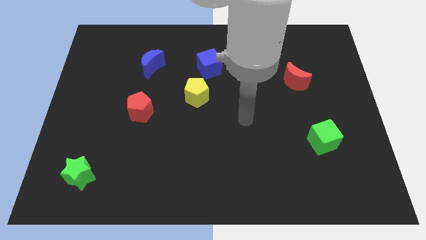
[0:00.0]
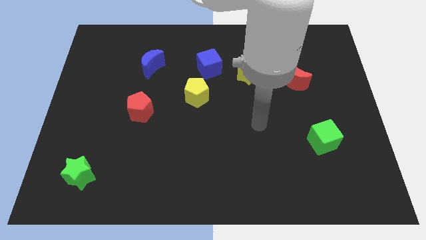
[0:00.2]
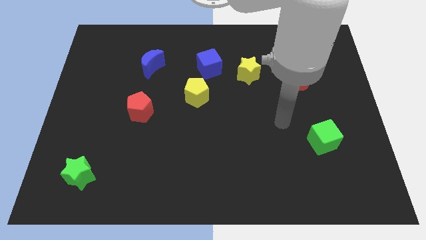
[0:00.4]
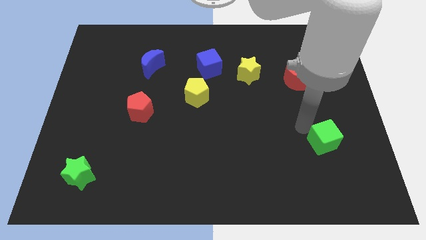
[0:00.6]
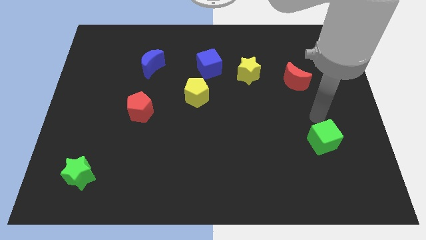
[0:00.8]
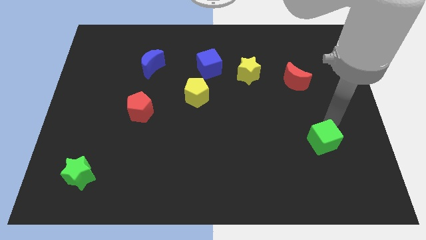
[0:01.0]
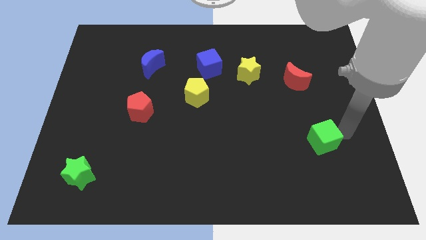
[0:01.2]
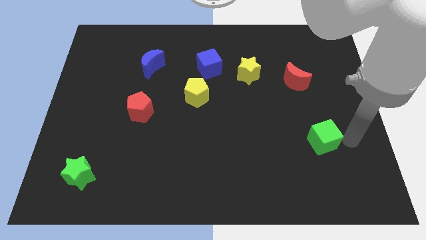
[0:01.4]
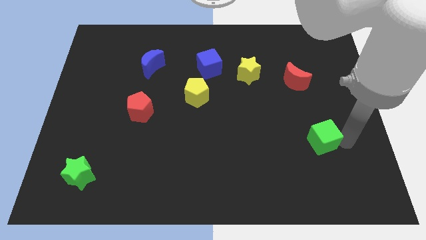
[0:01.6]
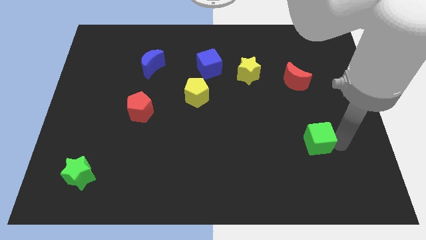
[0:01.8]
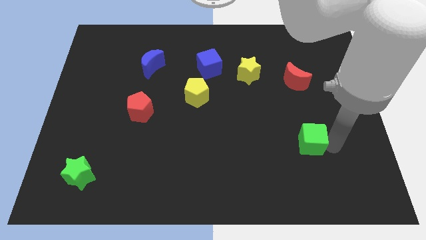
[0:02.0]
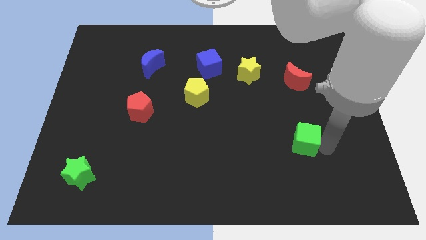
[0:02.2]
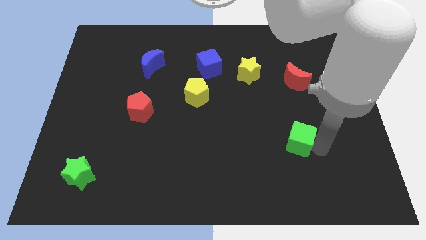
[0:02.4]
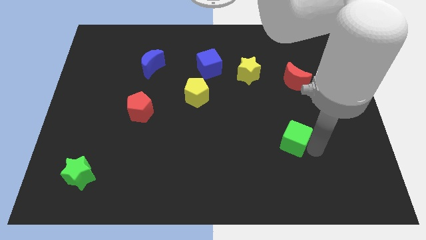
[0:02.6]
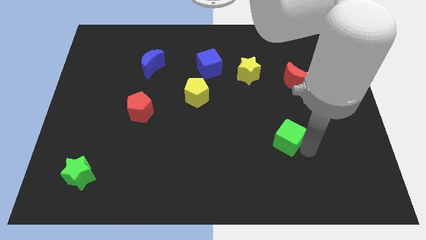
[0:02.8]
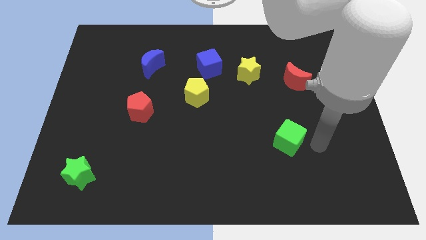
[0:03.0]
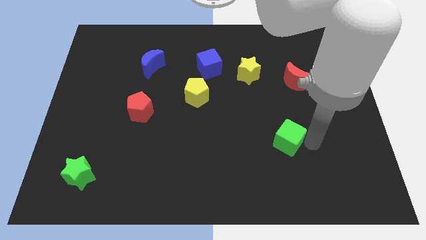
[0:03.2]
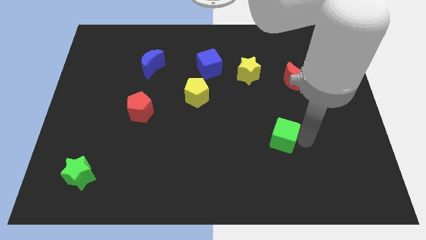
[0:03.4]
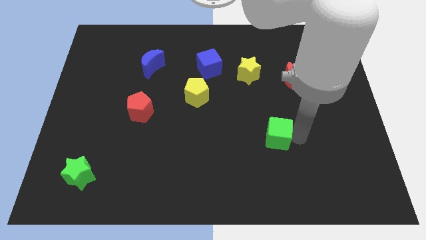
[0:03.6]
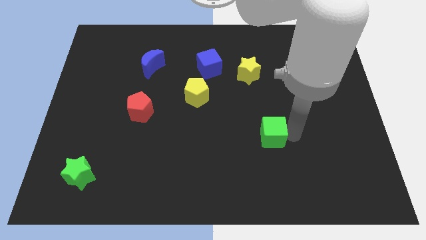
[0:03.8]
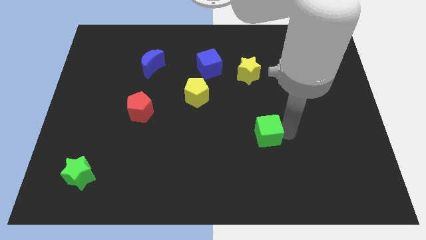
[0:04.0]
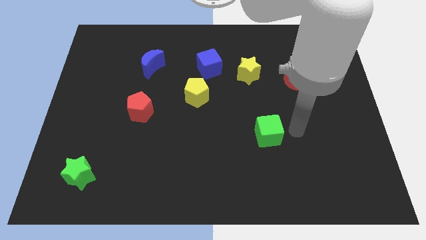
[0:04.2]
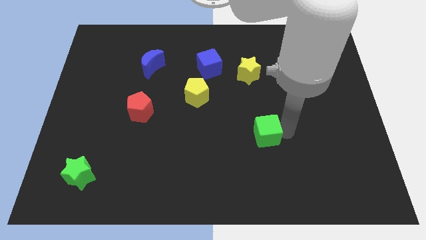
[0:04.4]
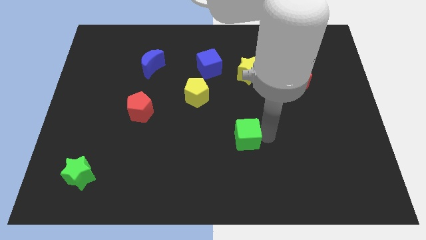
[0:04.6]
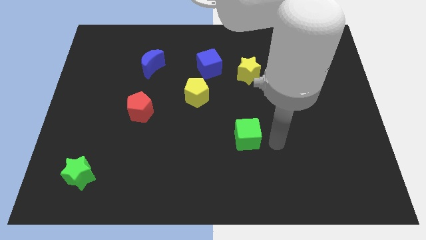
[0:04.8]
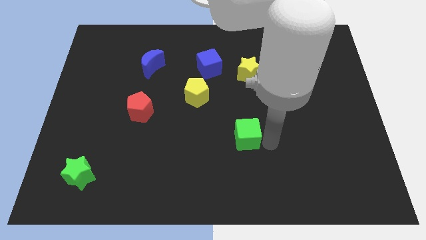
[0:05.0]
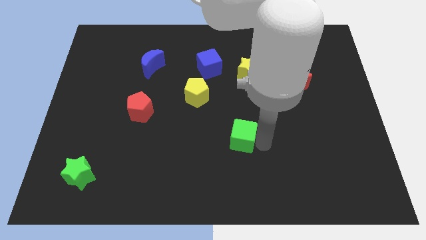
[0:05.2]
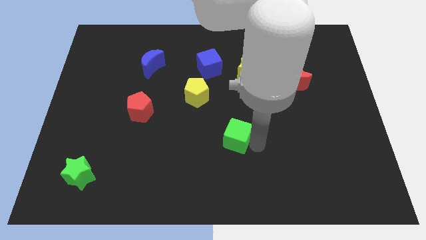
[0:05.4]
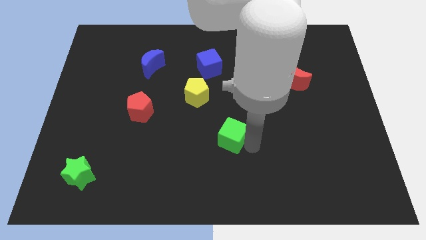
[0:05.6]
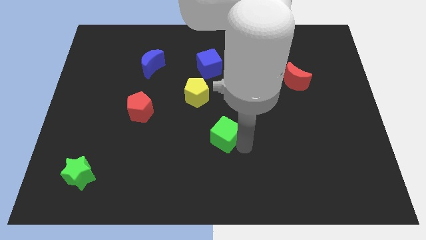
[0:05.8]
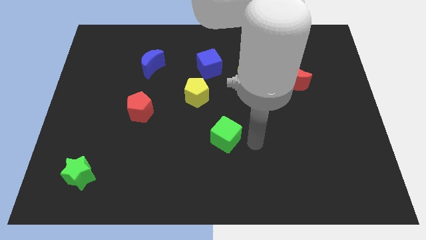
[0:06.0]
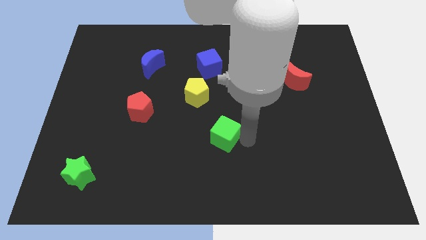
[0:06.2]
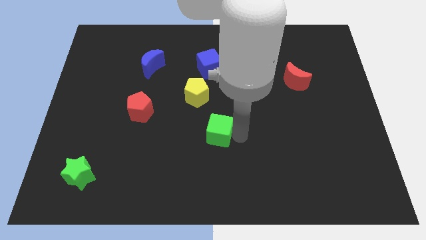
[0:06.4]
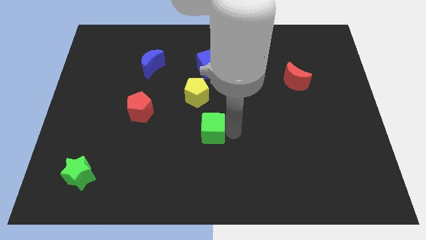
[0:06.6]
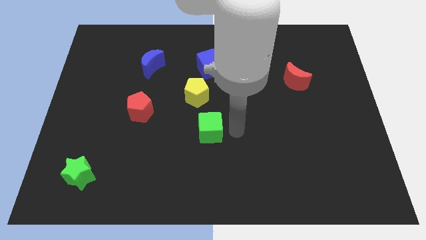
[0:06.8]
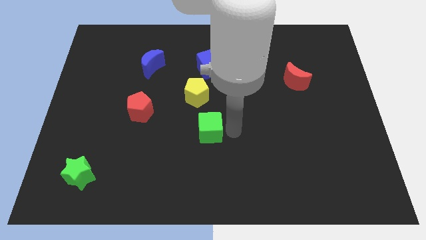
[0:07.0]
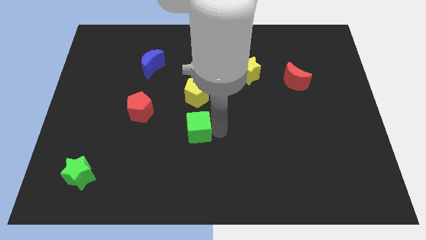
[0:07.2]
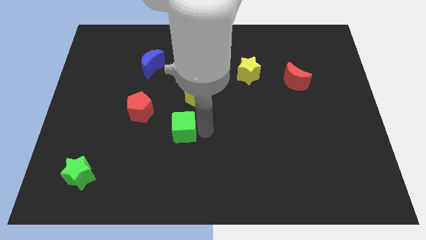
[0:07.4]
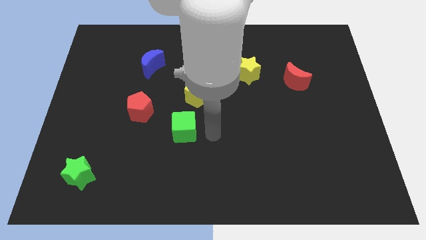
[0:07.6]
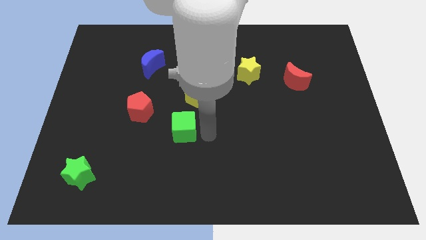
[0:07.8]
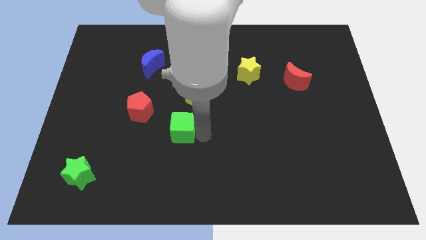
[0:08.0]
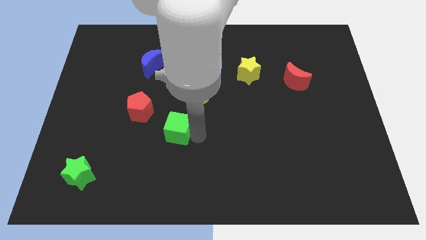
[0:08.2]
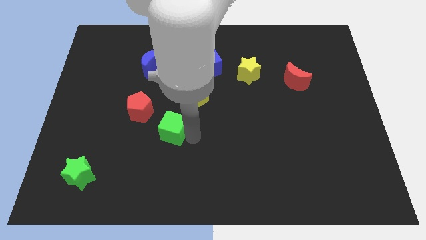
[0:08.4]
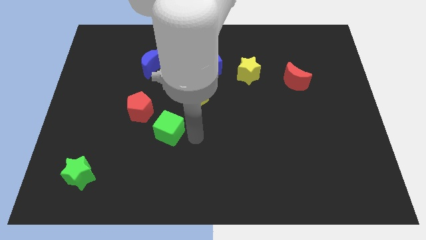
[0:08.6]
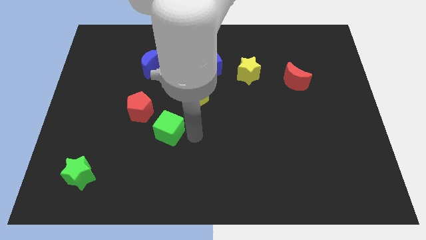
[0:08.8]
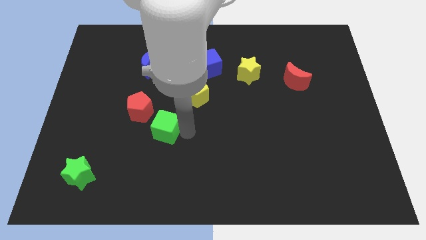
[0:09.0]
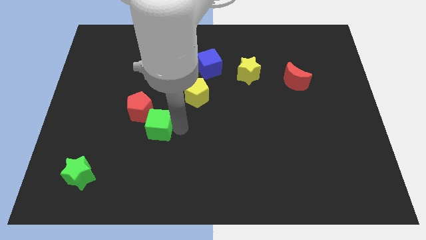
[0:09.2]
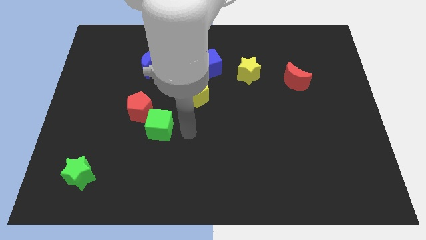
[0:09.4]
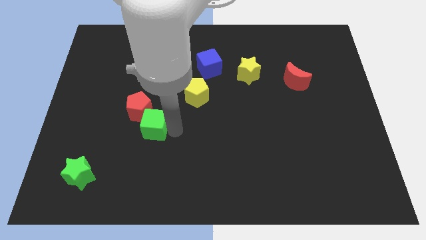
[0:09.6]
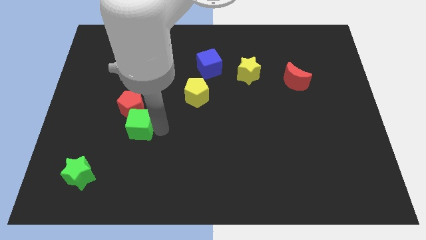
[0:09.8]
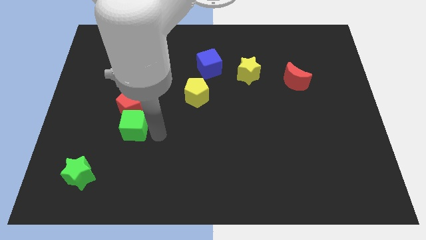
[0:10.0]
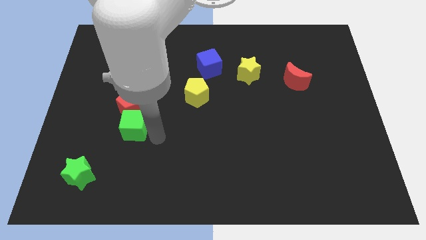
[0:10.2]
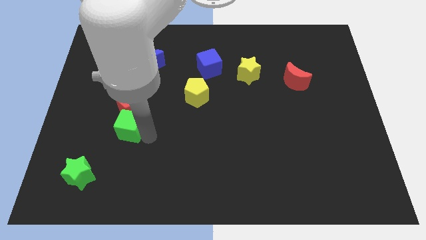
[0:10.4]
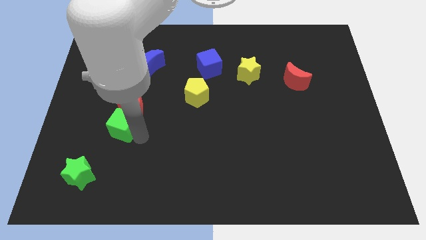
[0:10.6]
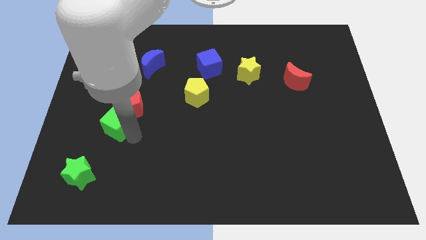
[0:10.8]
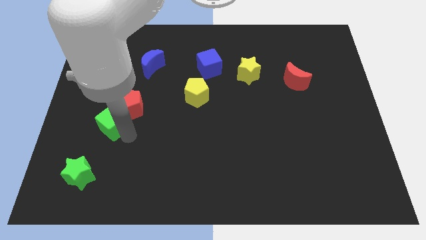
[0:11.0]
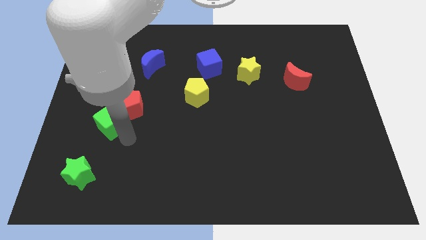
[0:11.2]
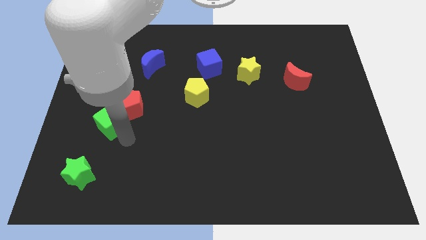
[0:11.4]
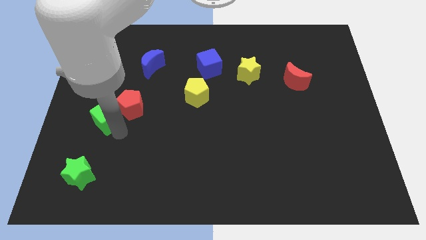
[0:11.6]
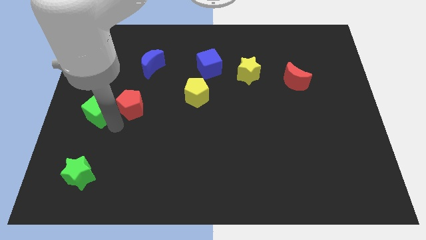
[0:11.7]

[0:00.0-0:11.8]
slide the green cube to the left side of the board

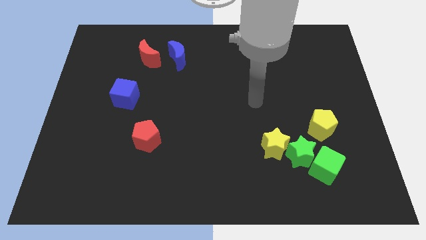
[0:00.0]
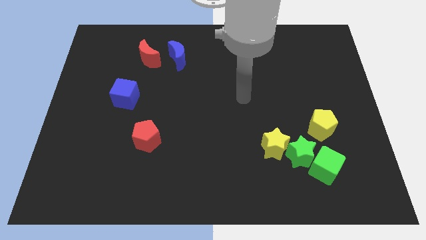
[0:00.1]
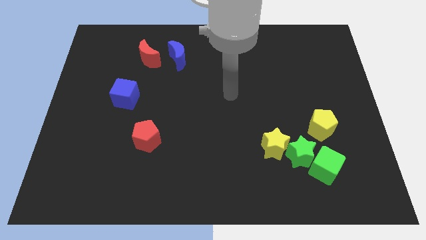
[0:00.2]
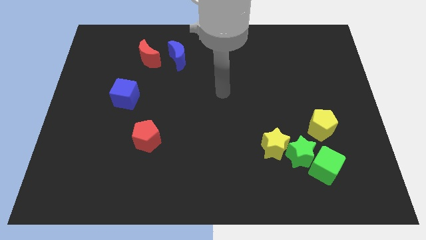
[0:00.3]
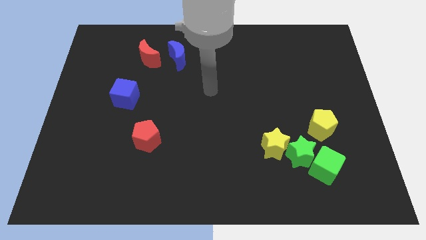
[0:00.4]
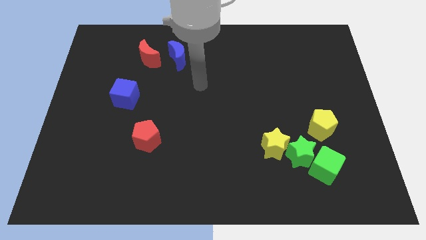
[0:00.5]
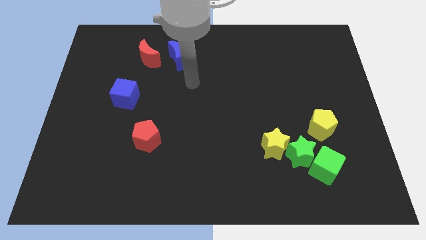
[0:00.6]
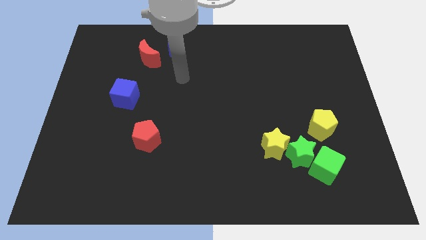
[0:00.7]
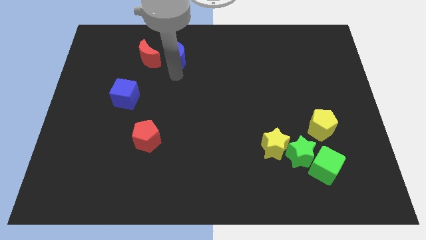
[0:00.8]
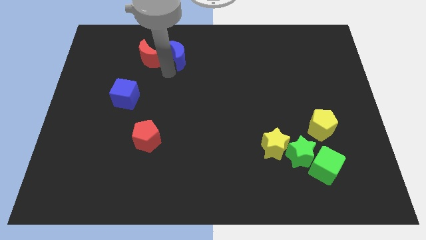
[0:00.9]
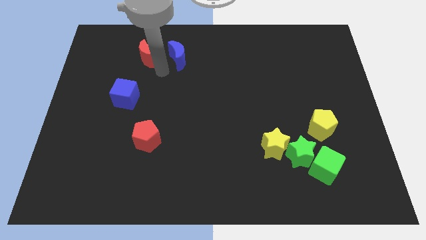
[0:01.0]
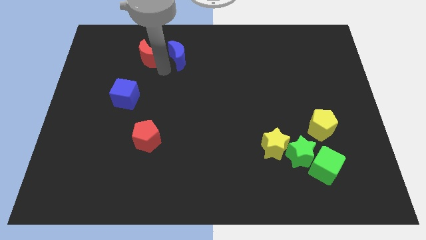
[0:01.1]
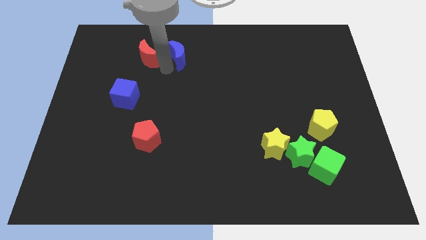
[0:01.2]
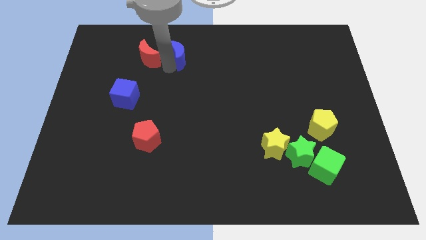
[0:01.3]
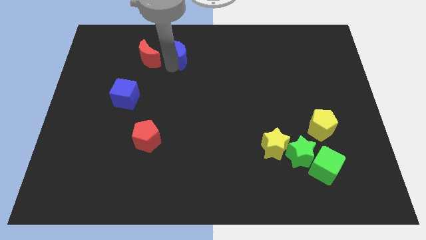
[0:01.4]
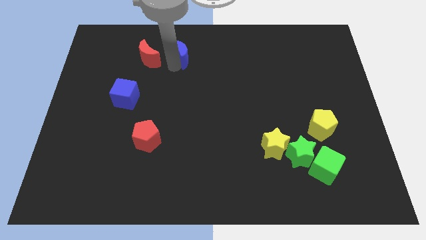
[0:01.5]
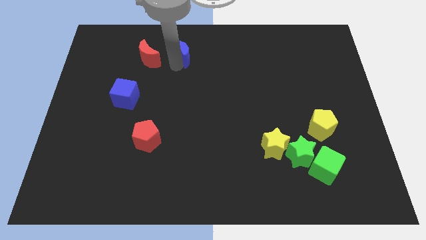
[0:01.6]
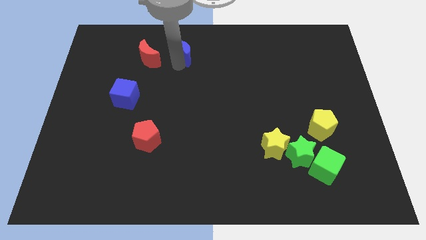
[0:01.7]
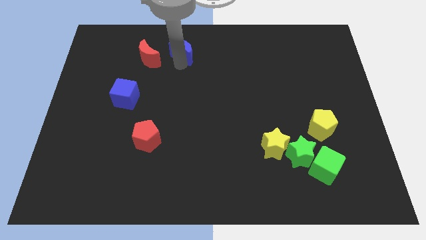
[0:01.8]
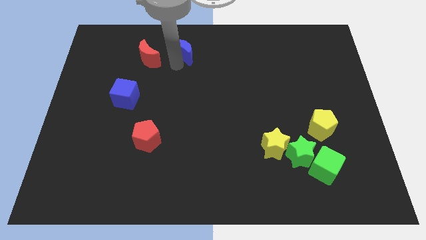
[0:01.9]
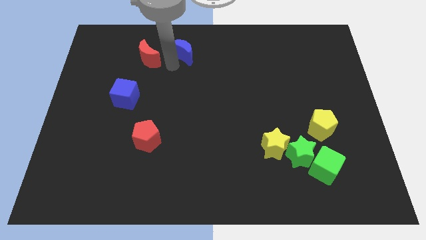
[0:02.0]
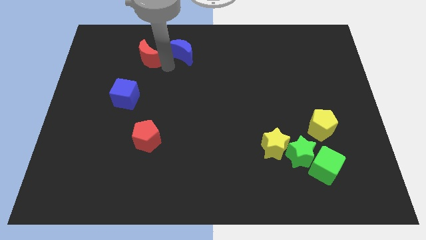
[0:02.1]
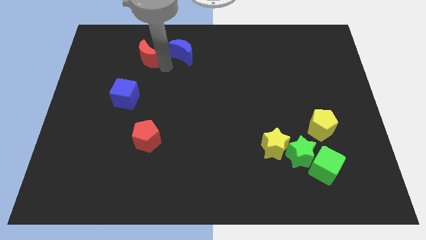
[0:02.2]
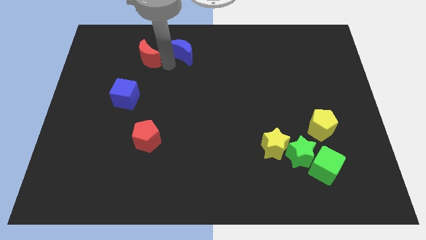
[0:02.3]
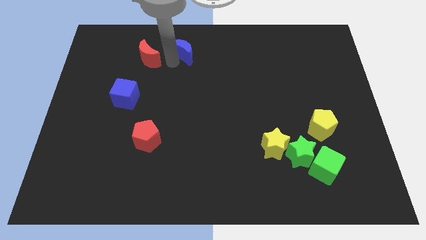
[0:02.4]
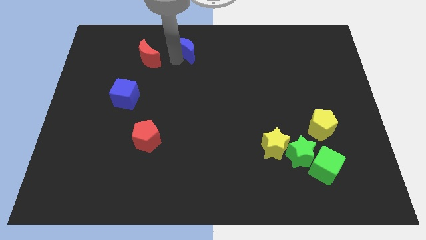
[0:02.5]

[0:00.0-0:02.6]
put the blue moon to the top
